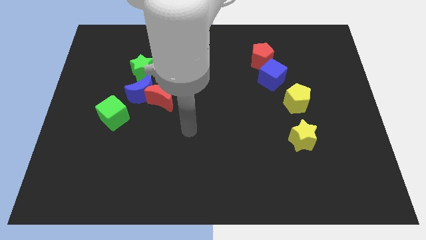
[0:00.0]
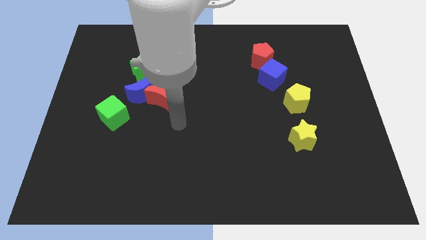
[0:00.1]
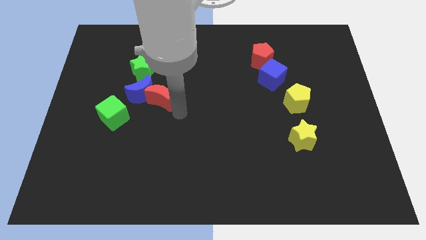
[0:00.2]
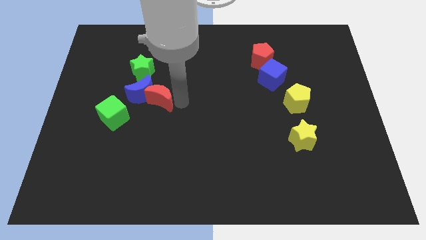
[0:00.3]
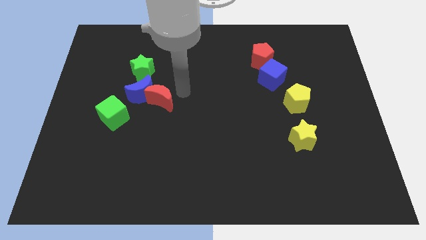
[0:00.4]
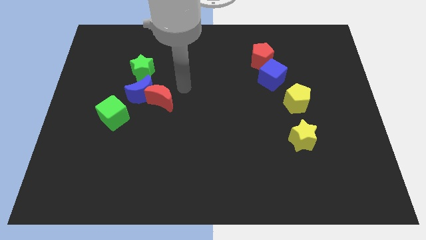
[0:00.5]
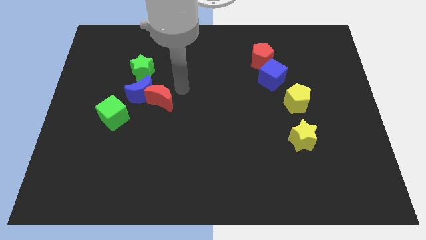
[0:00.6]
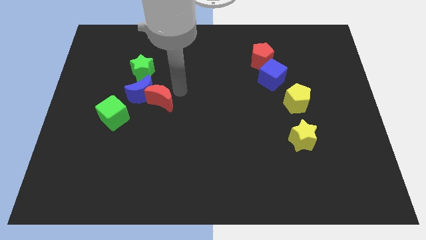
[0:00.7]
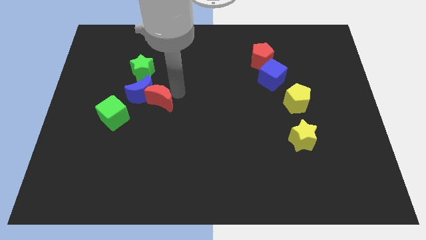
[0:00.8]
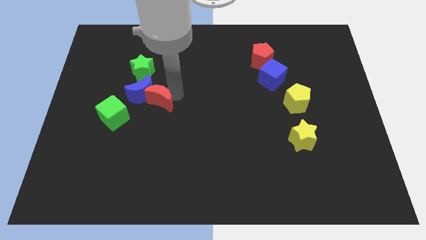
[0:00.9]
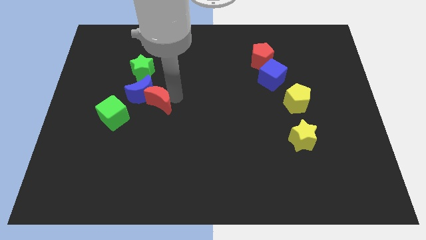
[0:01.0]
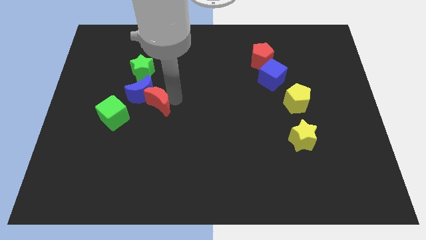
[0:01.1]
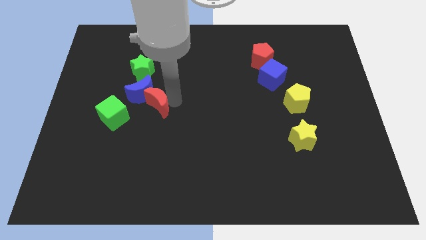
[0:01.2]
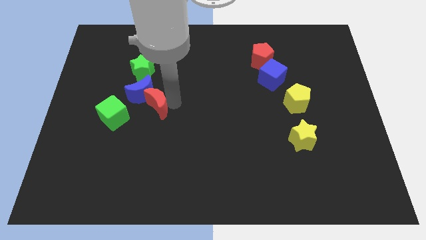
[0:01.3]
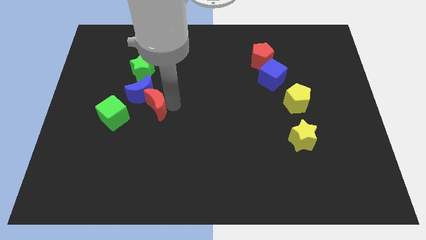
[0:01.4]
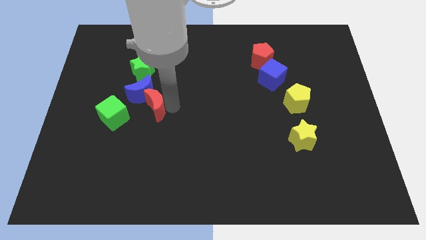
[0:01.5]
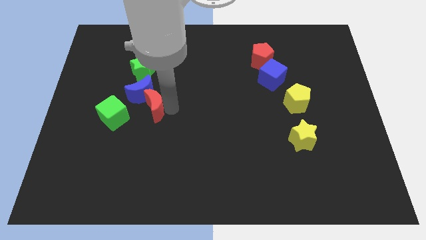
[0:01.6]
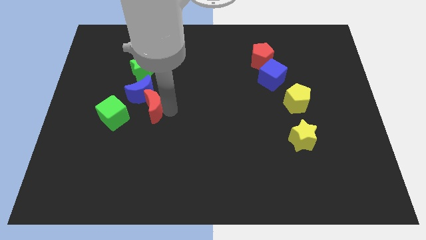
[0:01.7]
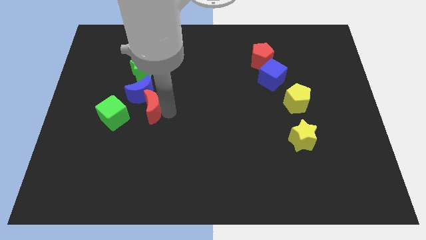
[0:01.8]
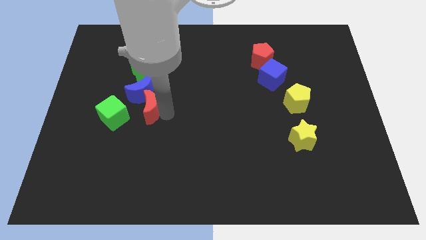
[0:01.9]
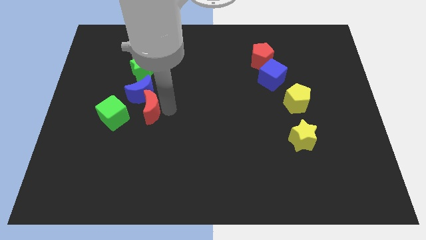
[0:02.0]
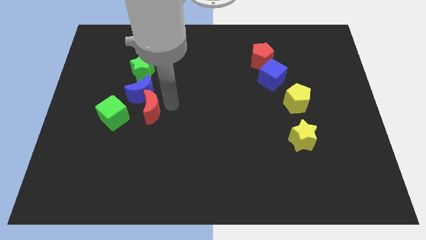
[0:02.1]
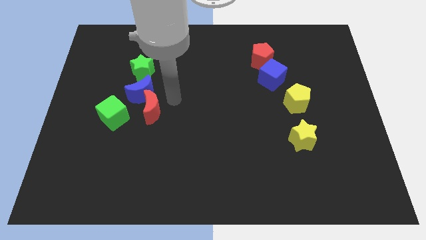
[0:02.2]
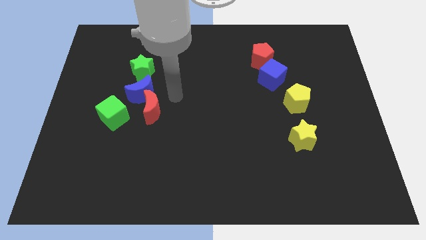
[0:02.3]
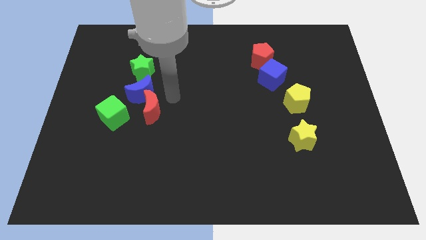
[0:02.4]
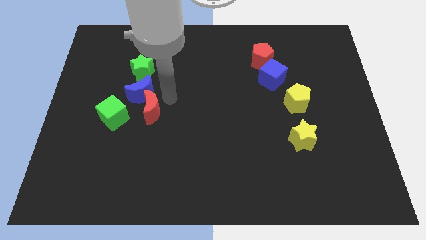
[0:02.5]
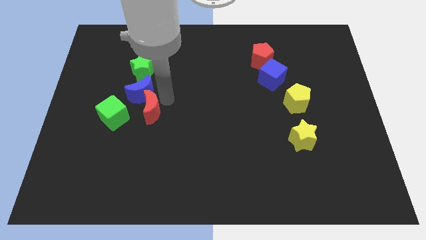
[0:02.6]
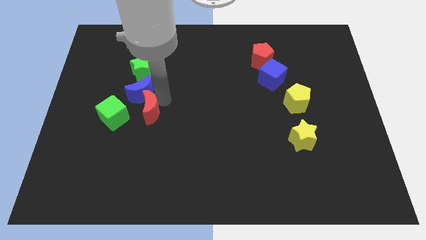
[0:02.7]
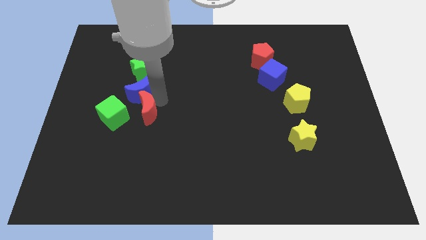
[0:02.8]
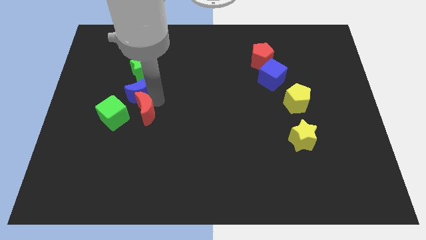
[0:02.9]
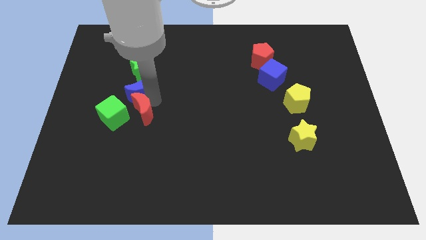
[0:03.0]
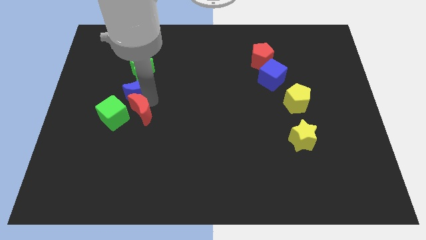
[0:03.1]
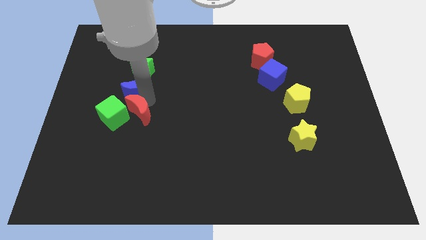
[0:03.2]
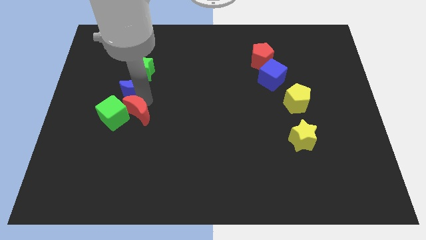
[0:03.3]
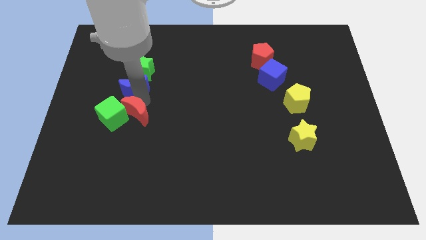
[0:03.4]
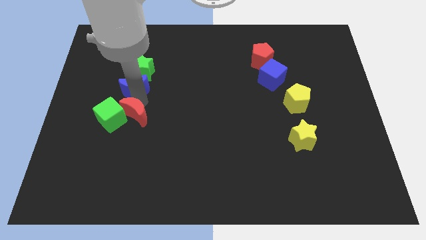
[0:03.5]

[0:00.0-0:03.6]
slide the red moon a little bit diagonally downwards and left

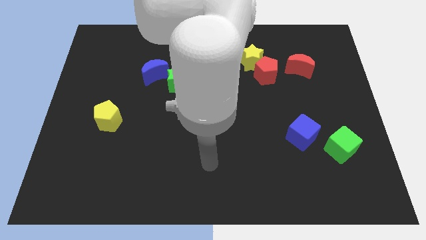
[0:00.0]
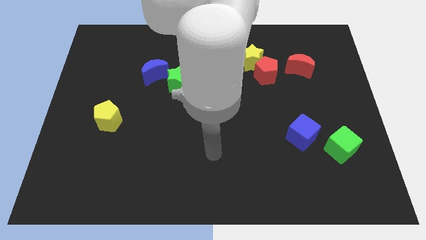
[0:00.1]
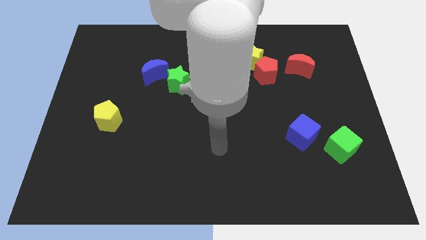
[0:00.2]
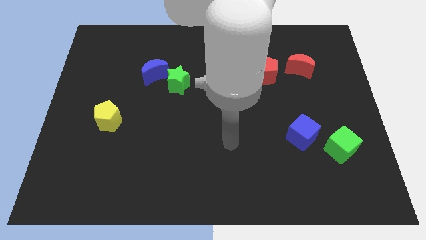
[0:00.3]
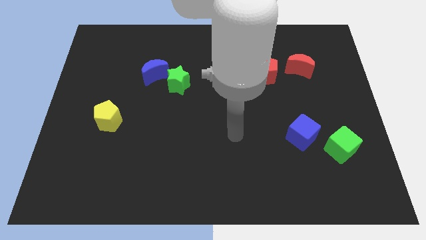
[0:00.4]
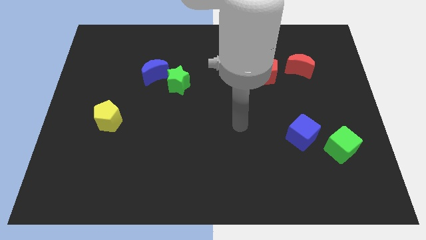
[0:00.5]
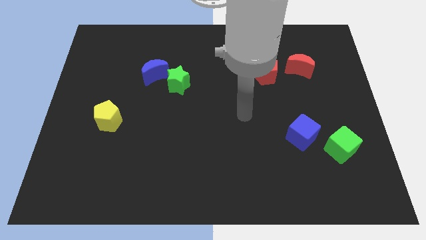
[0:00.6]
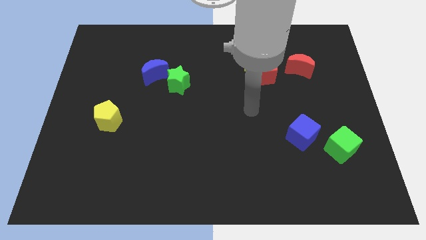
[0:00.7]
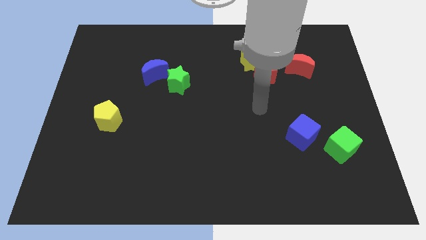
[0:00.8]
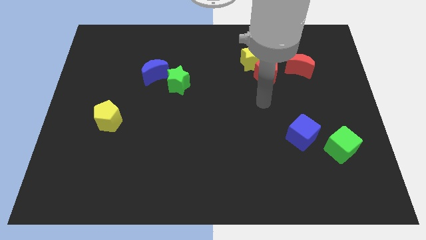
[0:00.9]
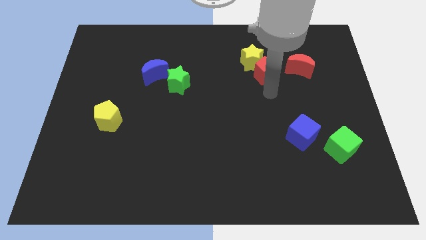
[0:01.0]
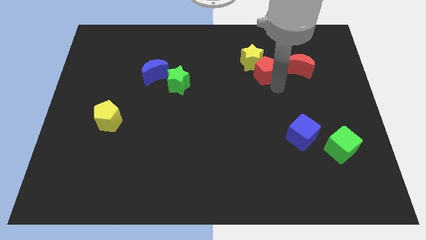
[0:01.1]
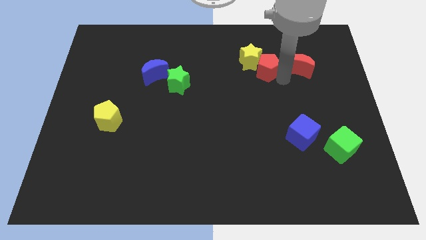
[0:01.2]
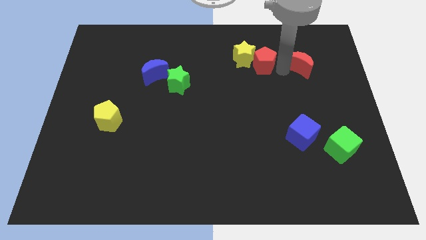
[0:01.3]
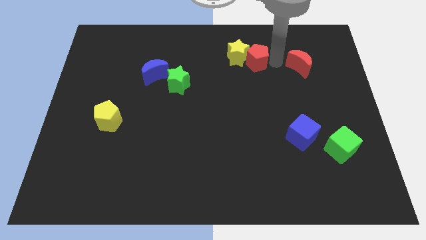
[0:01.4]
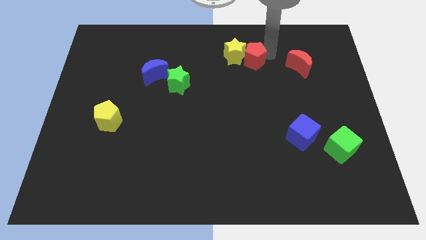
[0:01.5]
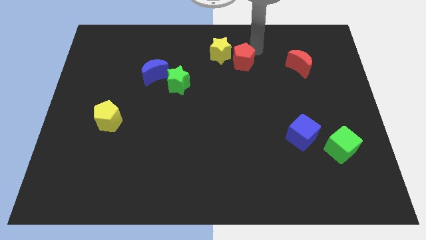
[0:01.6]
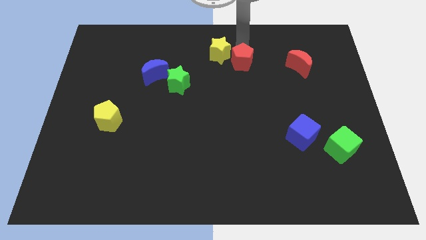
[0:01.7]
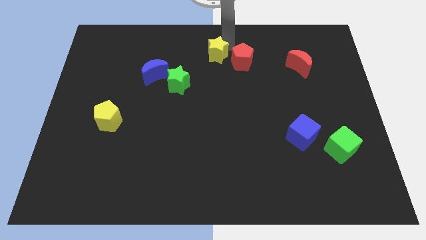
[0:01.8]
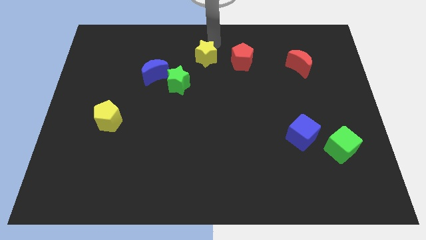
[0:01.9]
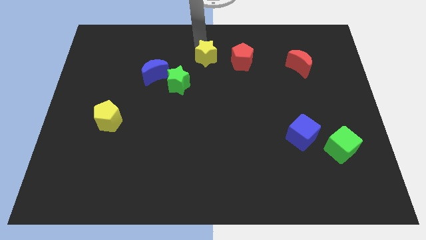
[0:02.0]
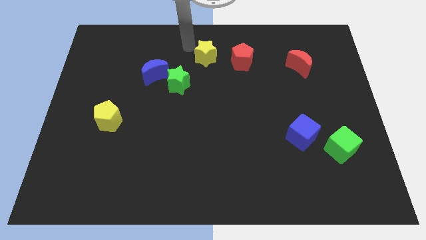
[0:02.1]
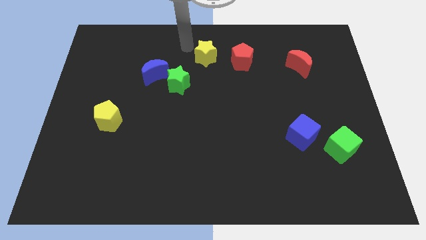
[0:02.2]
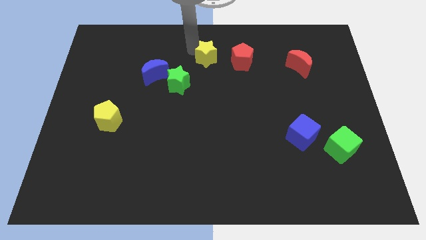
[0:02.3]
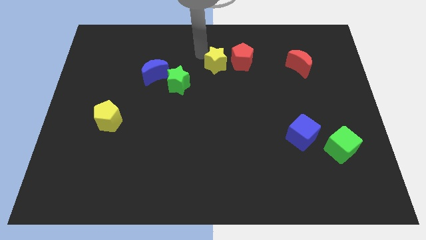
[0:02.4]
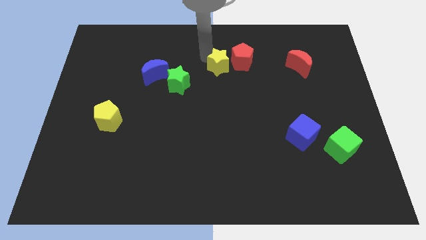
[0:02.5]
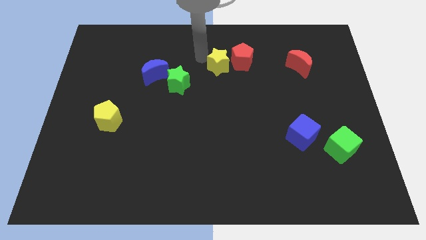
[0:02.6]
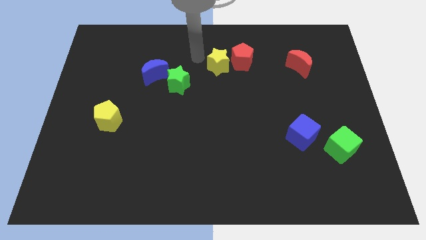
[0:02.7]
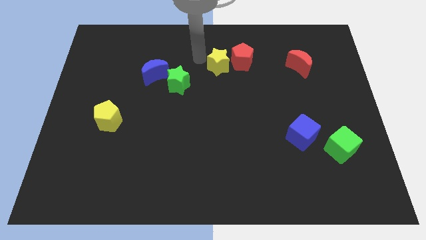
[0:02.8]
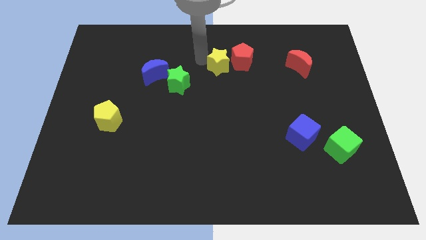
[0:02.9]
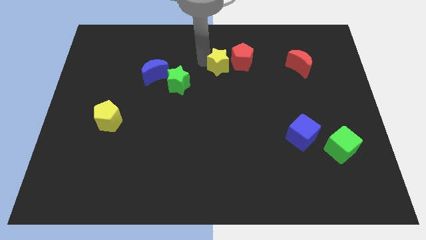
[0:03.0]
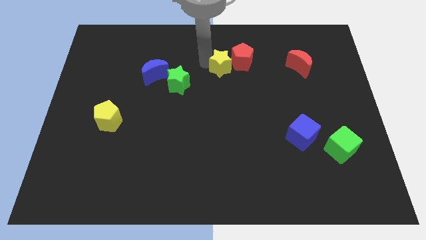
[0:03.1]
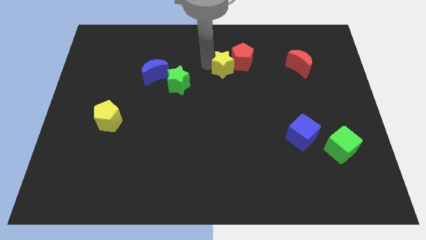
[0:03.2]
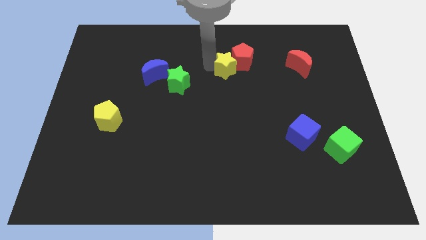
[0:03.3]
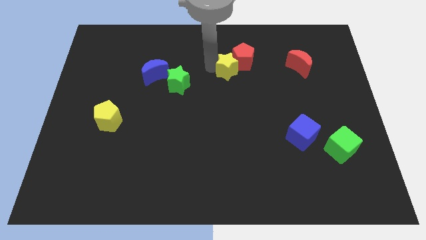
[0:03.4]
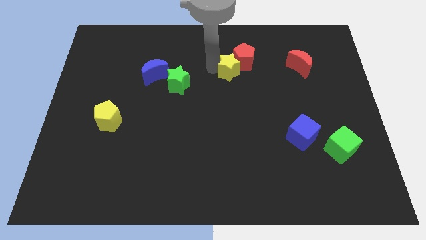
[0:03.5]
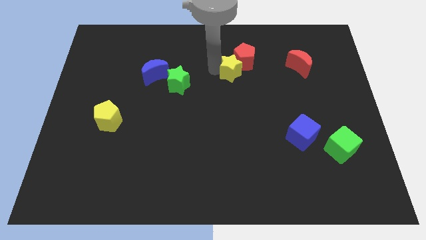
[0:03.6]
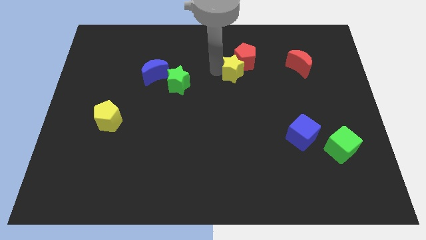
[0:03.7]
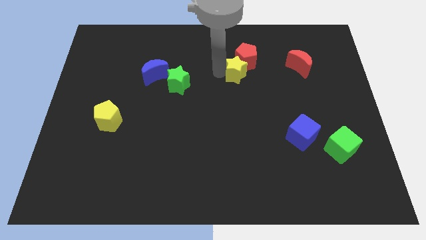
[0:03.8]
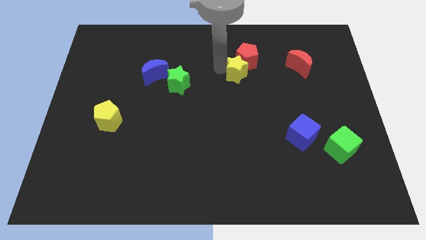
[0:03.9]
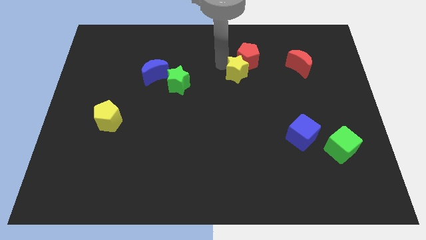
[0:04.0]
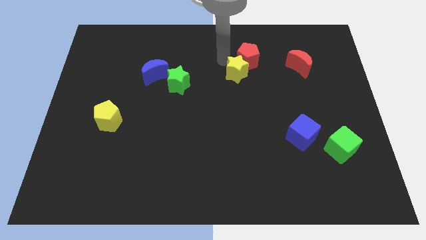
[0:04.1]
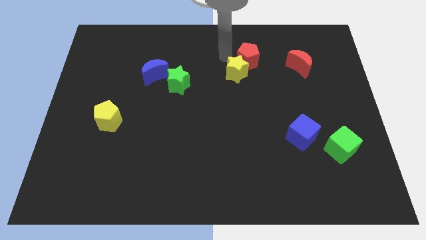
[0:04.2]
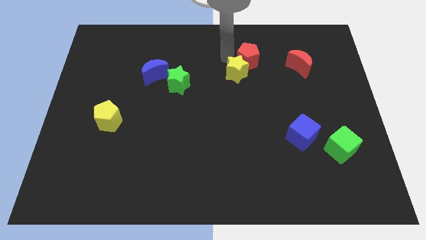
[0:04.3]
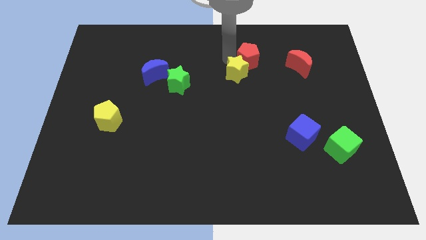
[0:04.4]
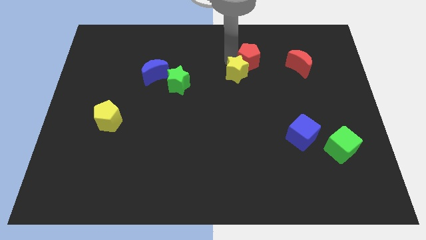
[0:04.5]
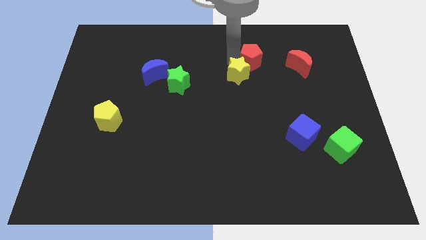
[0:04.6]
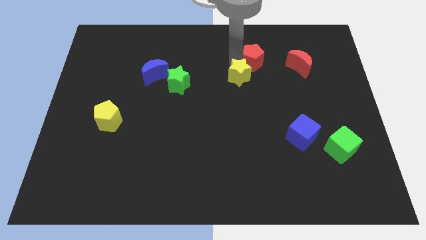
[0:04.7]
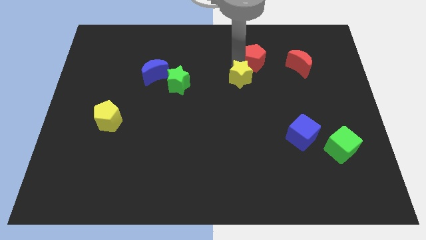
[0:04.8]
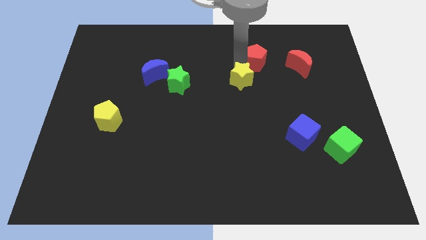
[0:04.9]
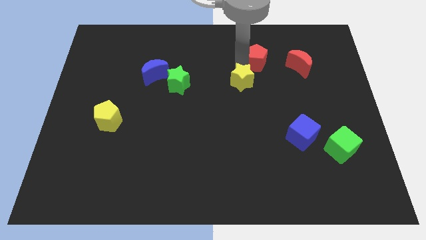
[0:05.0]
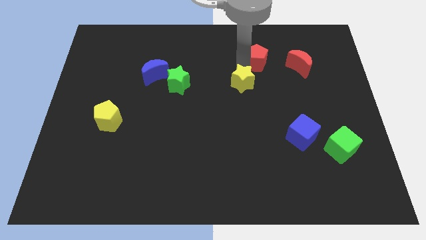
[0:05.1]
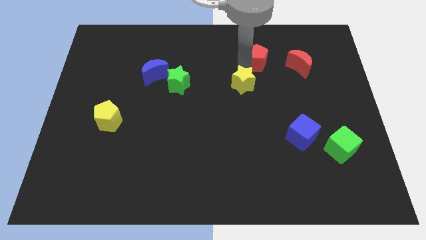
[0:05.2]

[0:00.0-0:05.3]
slightly slide the yellow star downwards
